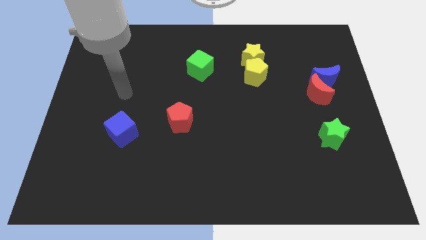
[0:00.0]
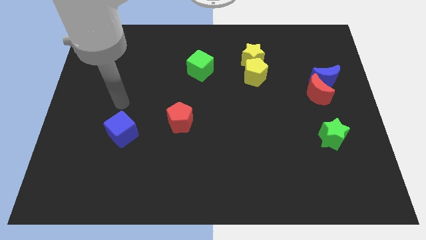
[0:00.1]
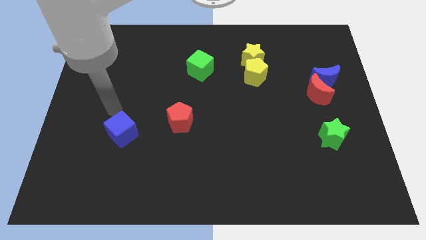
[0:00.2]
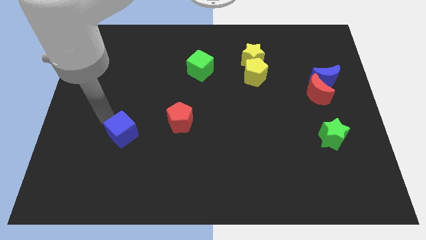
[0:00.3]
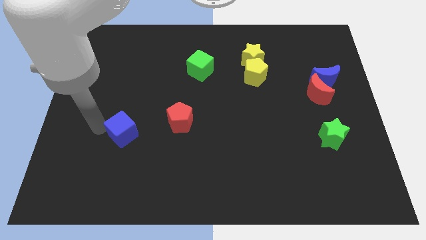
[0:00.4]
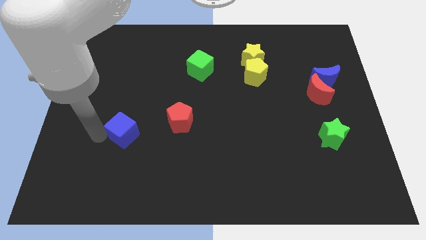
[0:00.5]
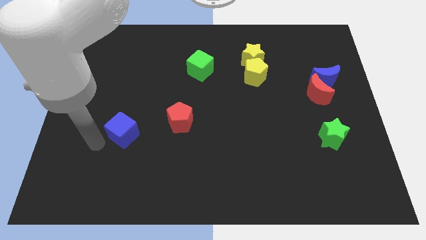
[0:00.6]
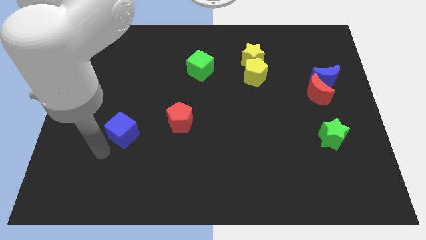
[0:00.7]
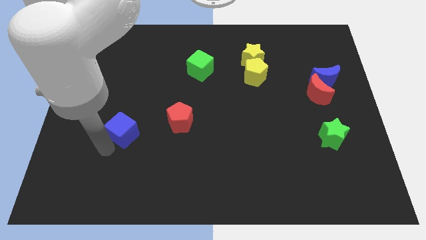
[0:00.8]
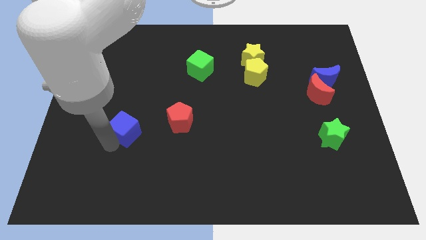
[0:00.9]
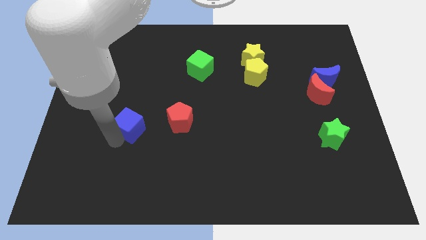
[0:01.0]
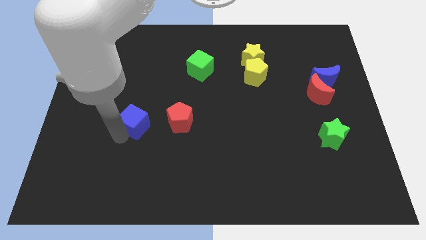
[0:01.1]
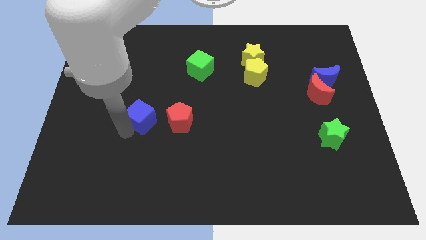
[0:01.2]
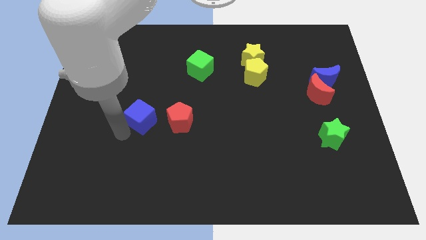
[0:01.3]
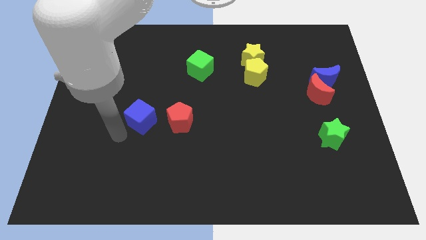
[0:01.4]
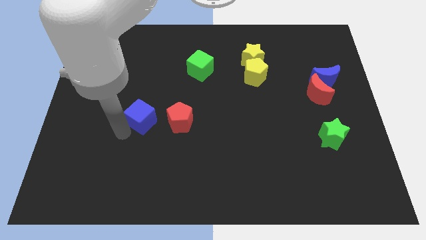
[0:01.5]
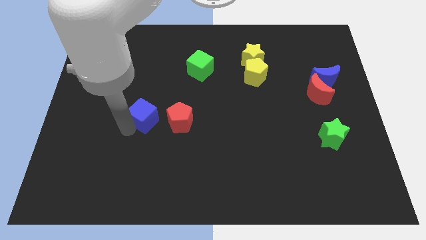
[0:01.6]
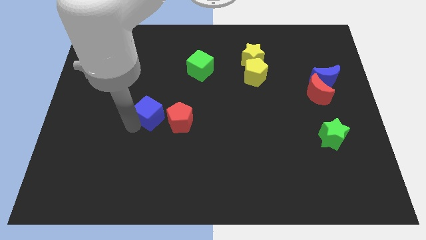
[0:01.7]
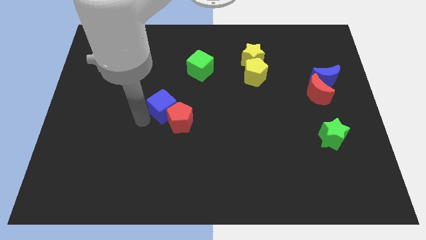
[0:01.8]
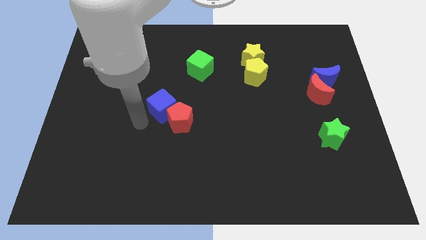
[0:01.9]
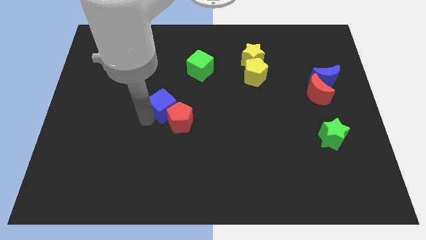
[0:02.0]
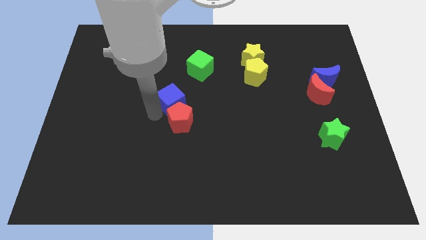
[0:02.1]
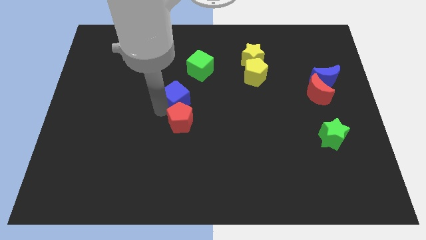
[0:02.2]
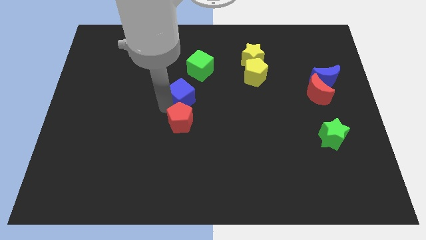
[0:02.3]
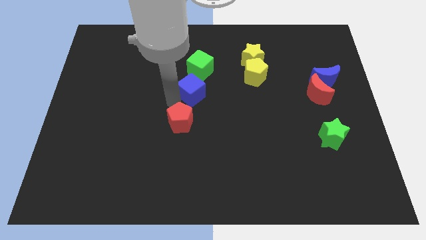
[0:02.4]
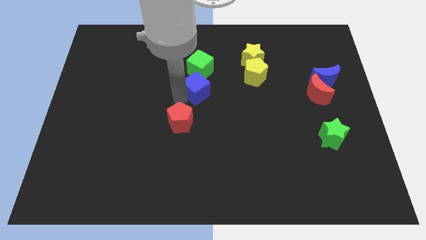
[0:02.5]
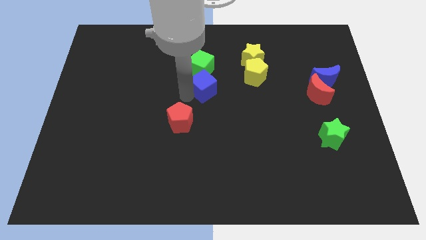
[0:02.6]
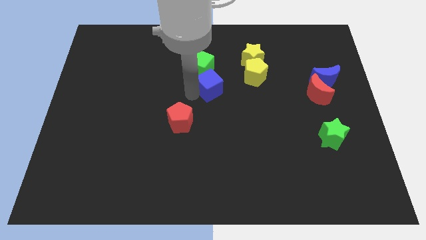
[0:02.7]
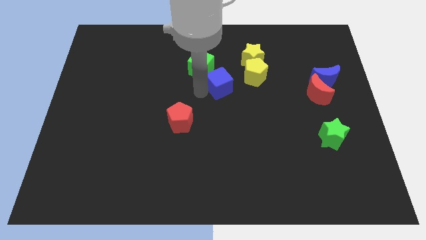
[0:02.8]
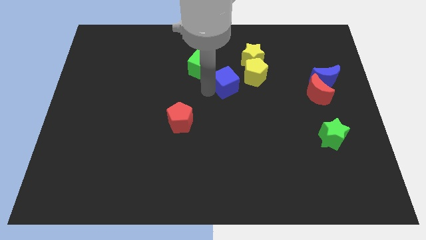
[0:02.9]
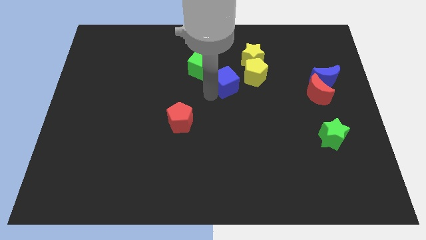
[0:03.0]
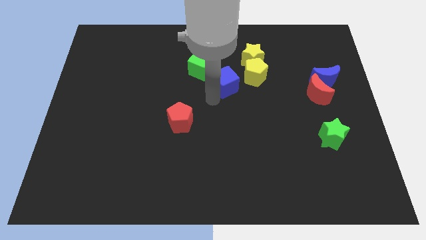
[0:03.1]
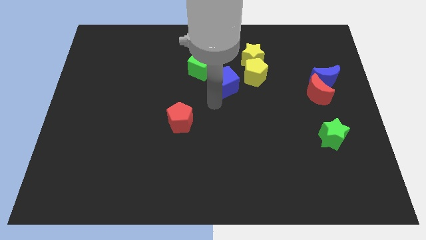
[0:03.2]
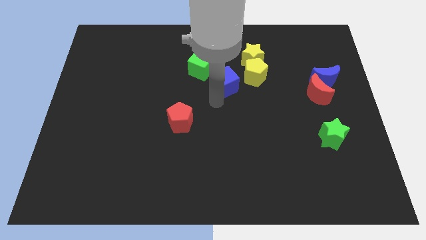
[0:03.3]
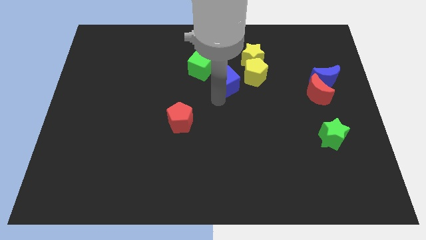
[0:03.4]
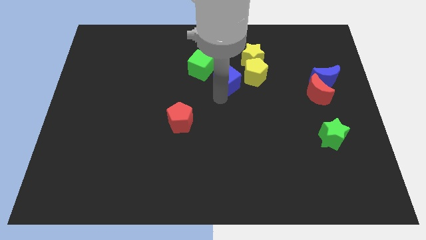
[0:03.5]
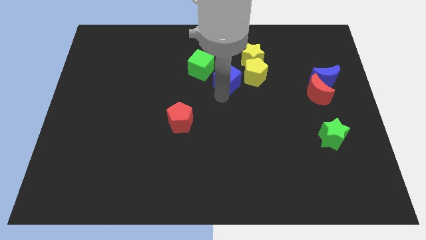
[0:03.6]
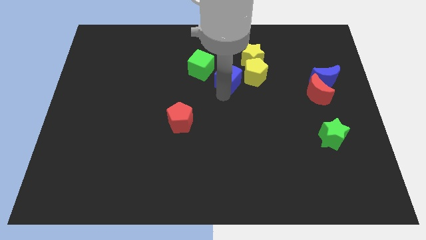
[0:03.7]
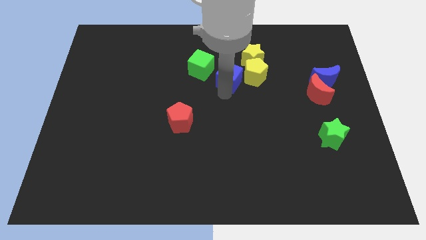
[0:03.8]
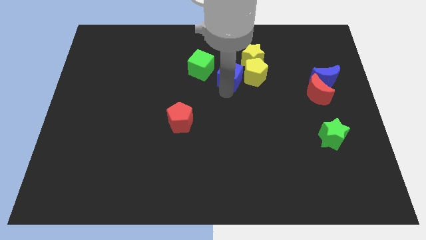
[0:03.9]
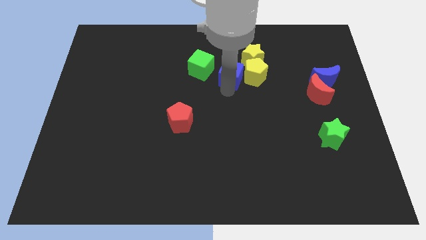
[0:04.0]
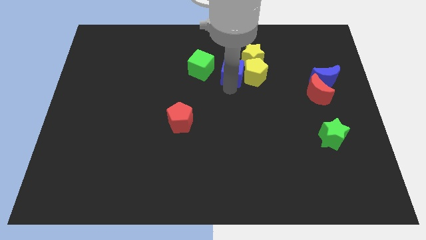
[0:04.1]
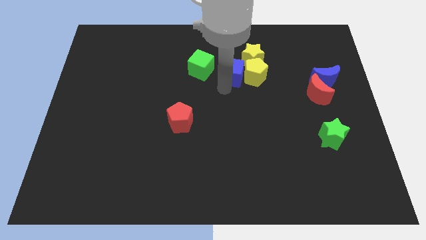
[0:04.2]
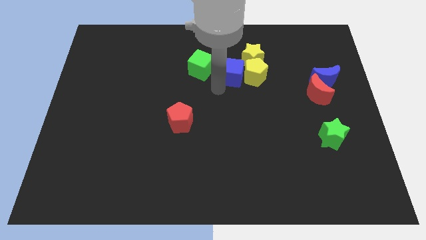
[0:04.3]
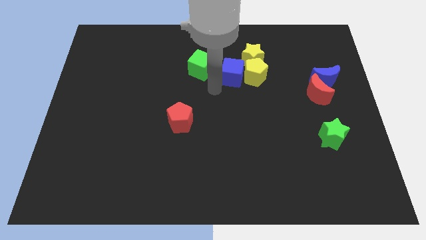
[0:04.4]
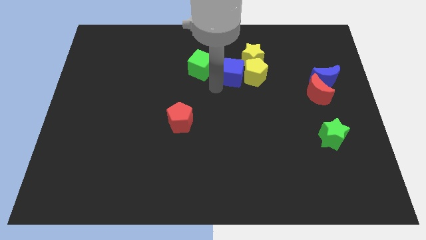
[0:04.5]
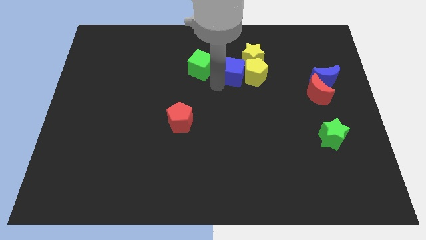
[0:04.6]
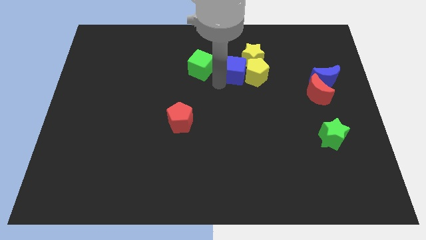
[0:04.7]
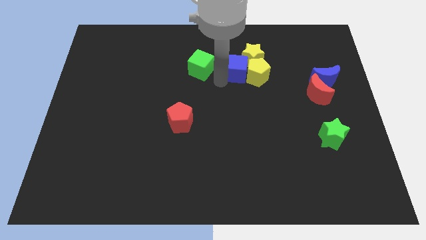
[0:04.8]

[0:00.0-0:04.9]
push the blue cube towards the yellow star

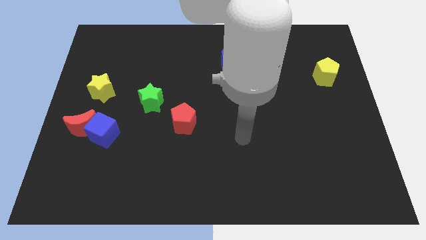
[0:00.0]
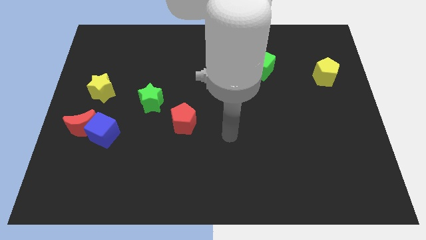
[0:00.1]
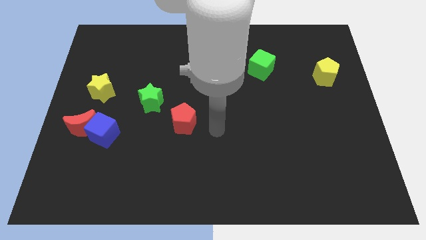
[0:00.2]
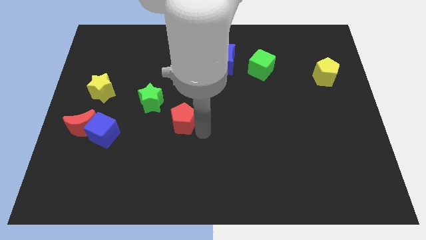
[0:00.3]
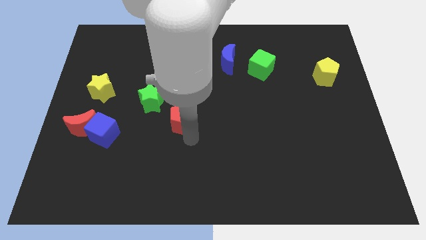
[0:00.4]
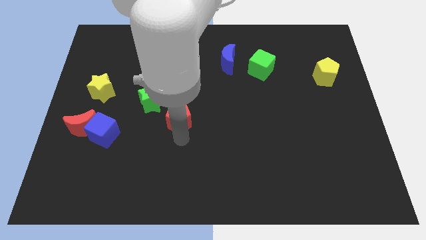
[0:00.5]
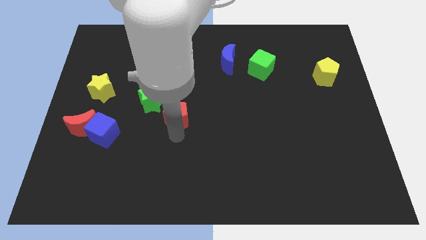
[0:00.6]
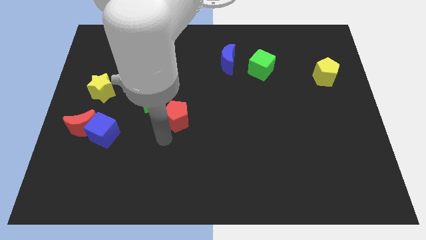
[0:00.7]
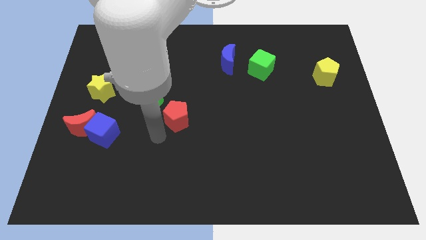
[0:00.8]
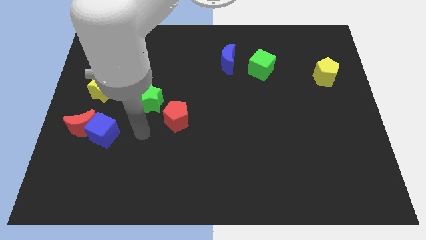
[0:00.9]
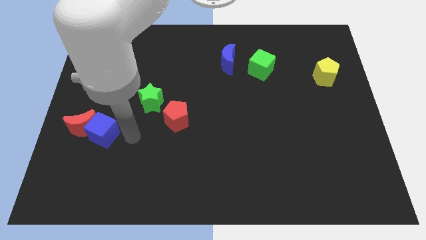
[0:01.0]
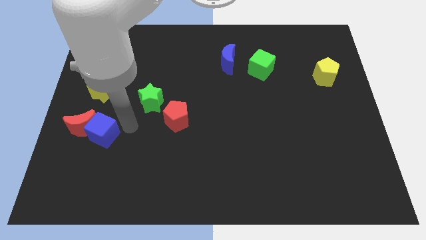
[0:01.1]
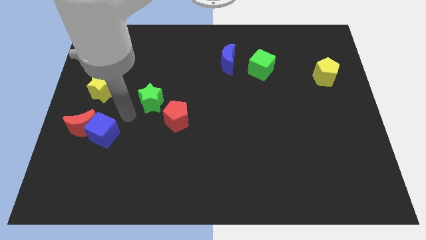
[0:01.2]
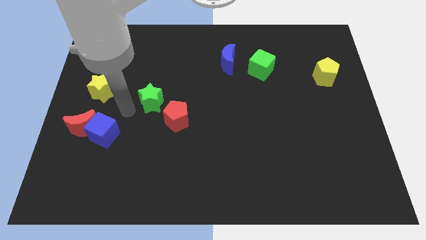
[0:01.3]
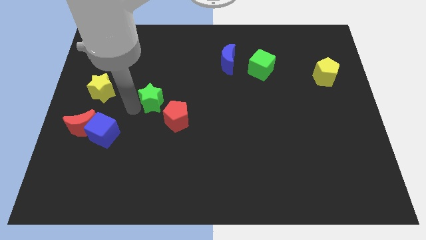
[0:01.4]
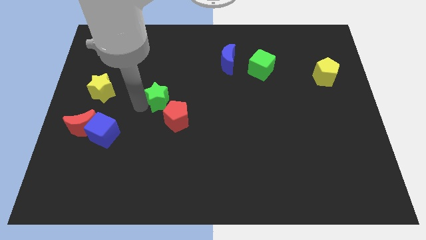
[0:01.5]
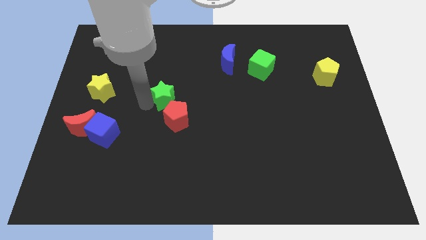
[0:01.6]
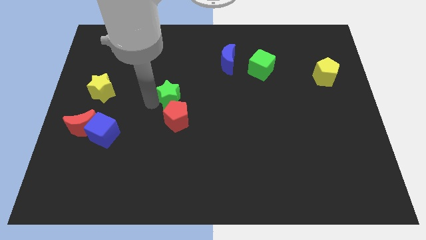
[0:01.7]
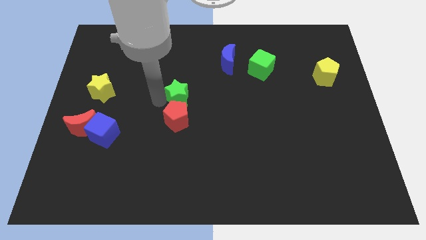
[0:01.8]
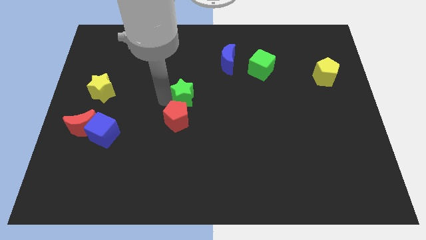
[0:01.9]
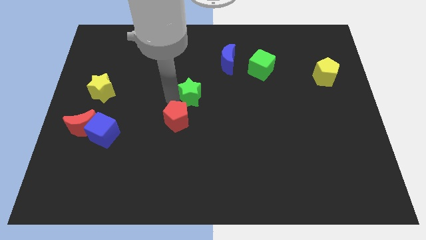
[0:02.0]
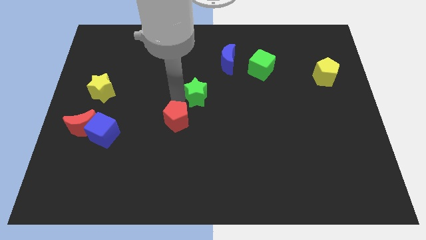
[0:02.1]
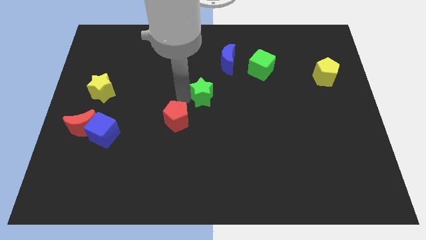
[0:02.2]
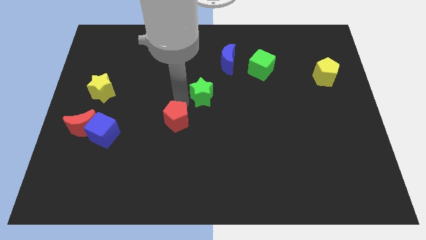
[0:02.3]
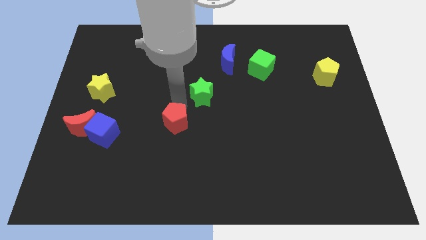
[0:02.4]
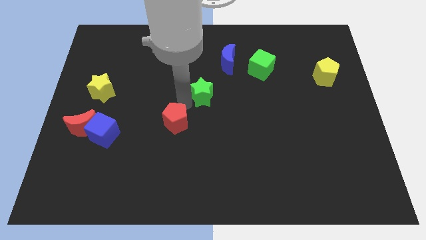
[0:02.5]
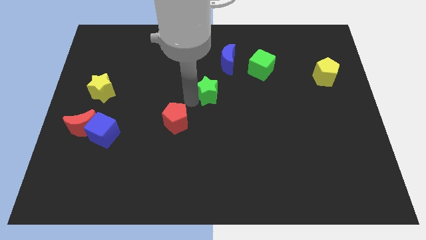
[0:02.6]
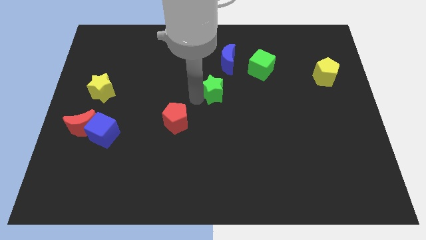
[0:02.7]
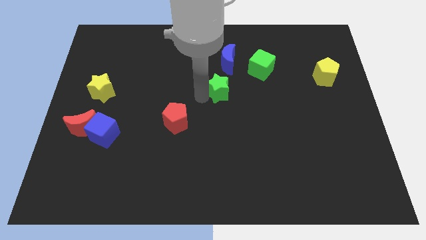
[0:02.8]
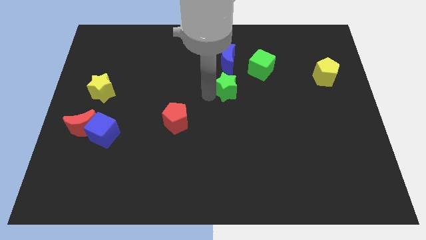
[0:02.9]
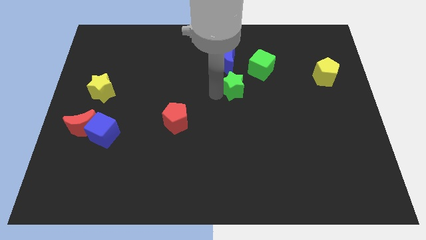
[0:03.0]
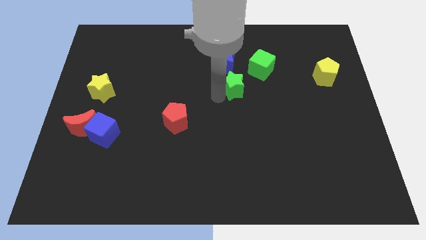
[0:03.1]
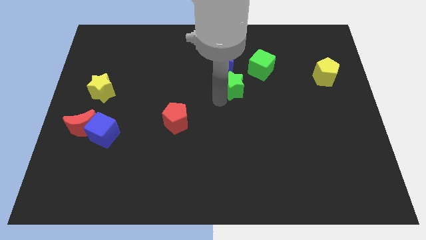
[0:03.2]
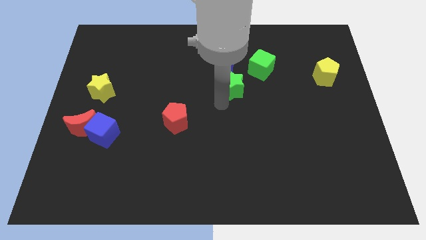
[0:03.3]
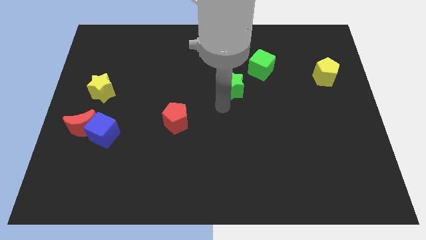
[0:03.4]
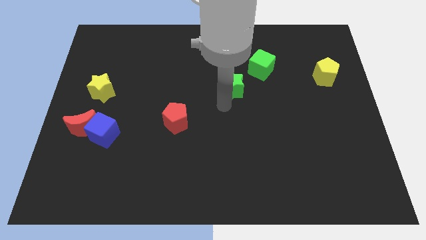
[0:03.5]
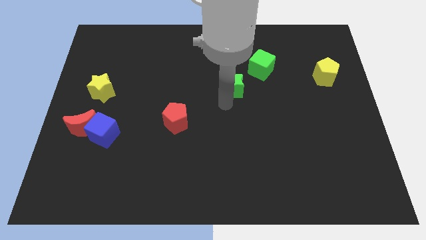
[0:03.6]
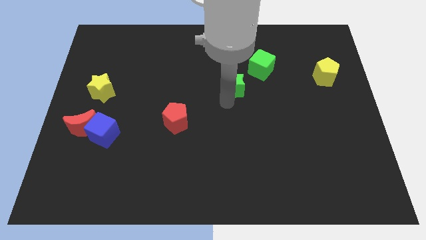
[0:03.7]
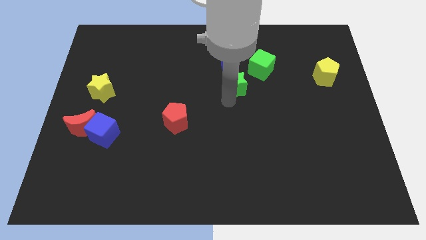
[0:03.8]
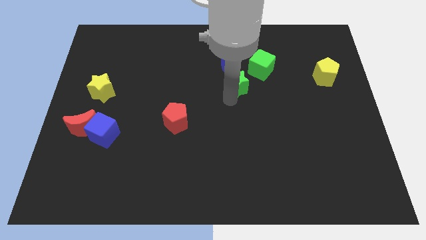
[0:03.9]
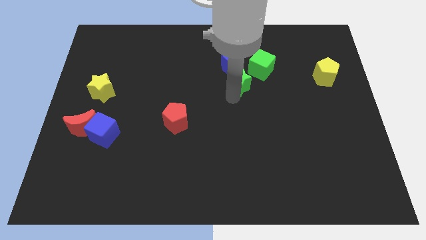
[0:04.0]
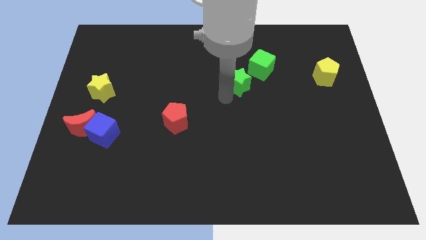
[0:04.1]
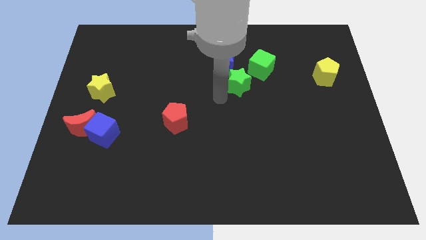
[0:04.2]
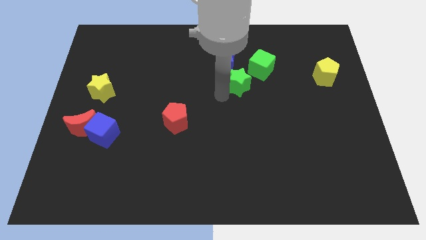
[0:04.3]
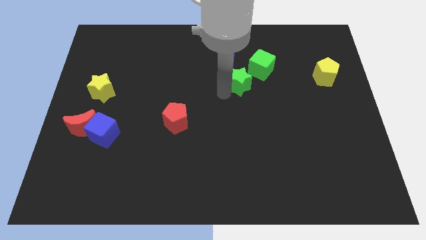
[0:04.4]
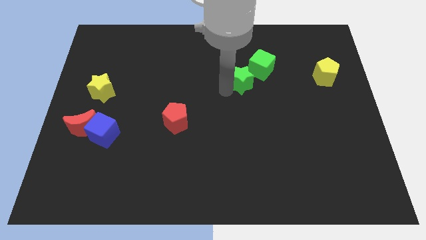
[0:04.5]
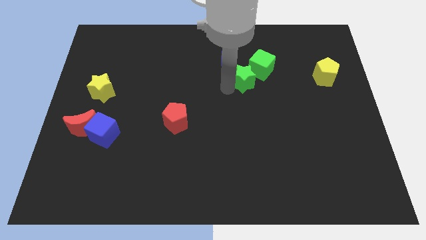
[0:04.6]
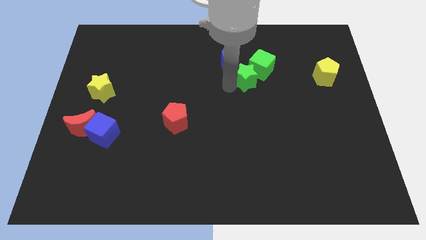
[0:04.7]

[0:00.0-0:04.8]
push the green star to the green cube
